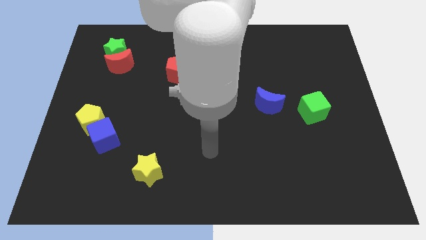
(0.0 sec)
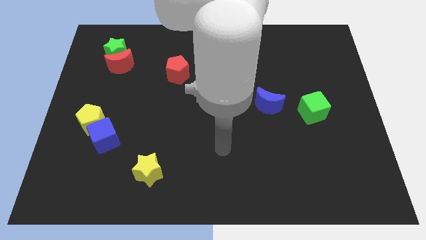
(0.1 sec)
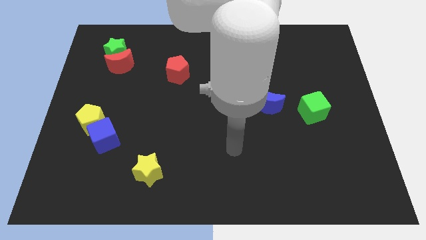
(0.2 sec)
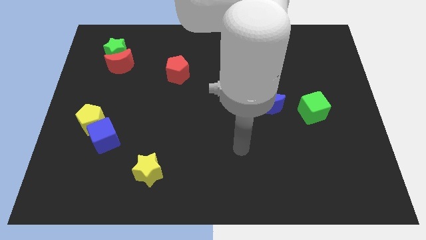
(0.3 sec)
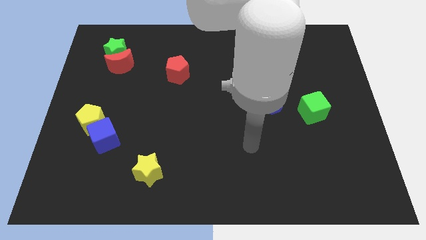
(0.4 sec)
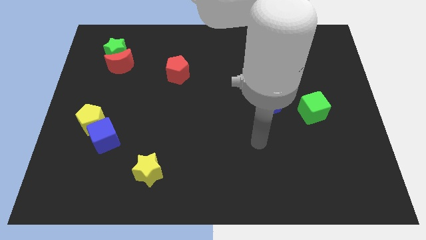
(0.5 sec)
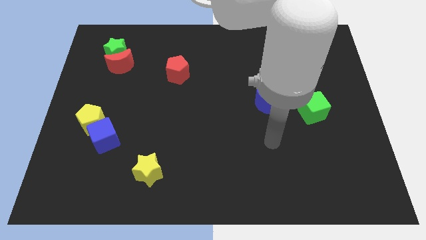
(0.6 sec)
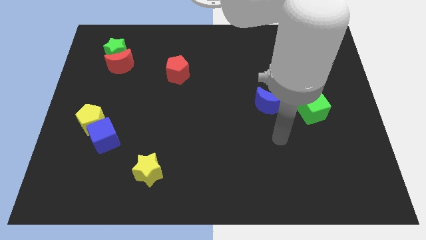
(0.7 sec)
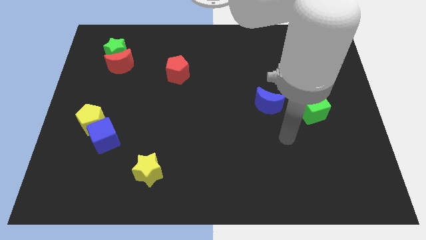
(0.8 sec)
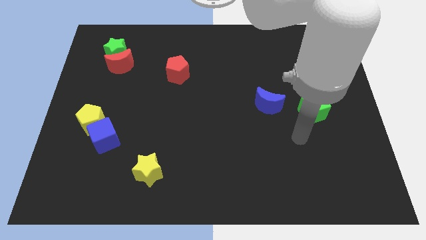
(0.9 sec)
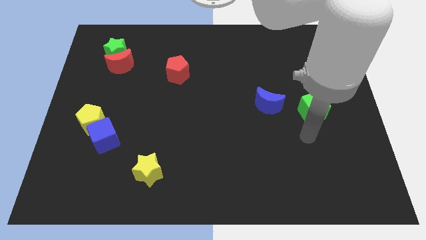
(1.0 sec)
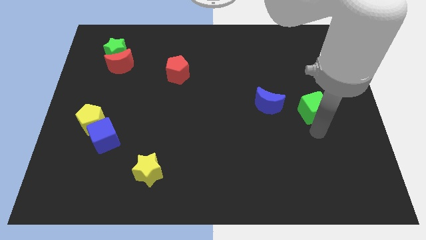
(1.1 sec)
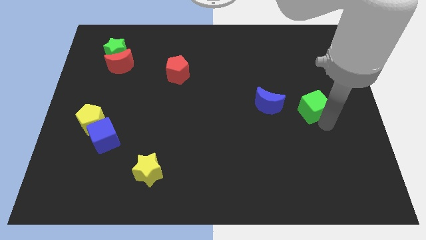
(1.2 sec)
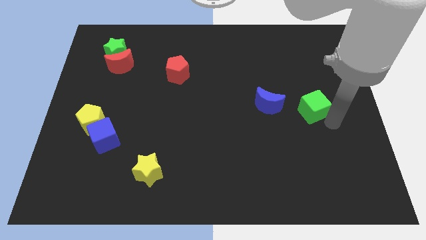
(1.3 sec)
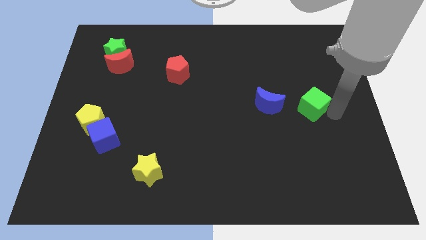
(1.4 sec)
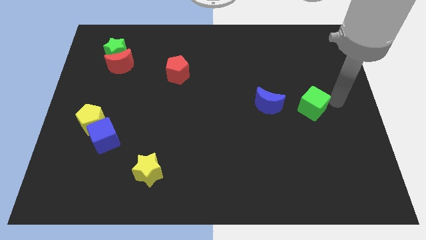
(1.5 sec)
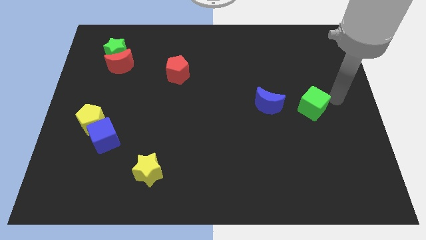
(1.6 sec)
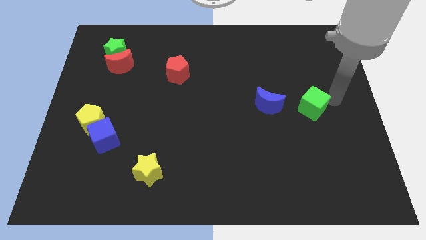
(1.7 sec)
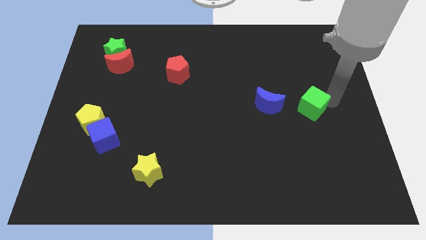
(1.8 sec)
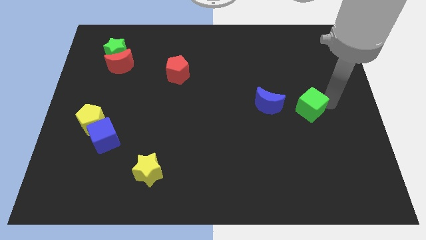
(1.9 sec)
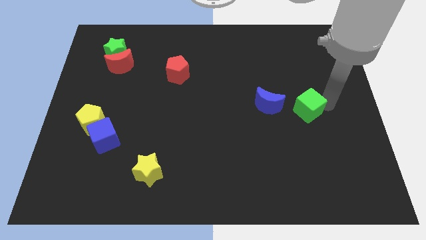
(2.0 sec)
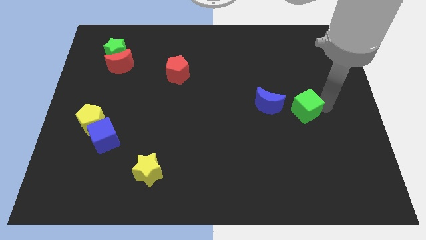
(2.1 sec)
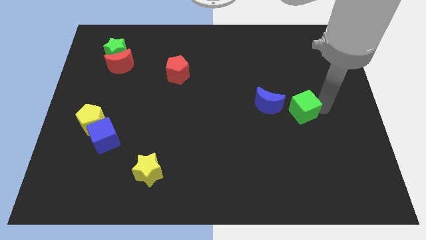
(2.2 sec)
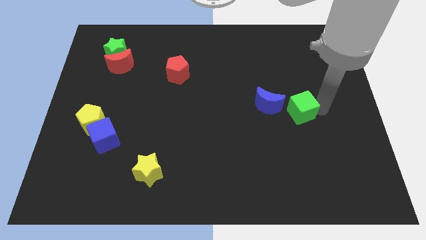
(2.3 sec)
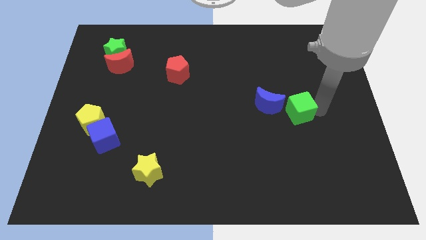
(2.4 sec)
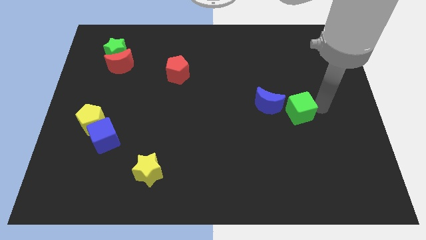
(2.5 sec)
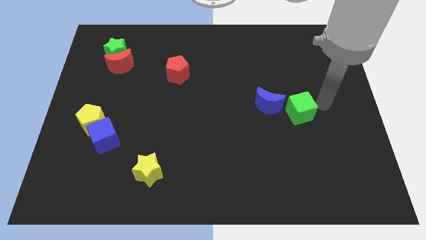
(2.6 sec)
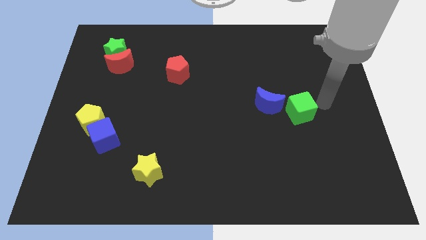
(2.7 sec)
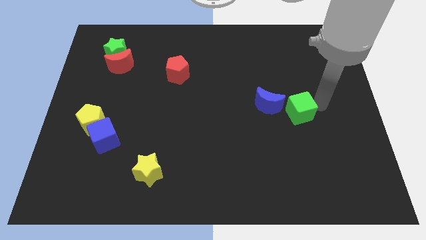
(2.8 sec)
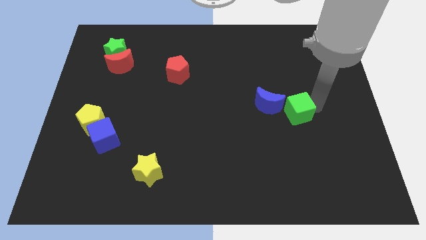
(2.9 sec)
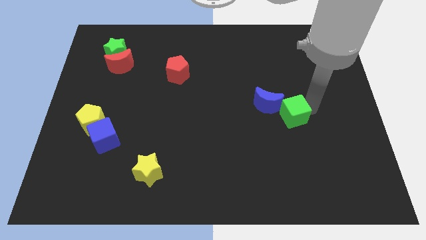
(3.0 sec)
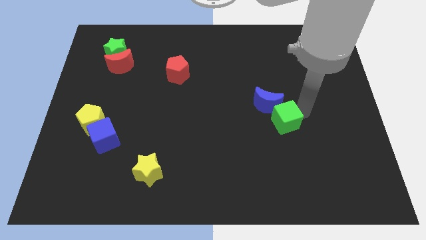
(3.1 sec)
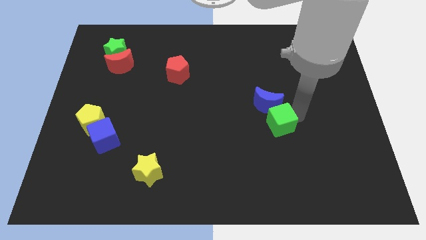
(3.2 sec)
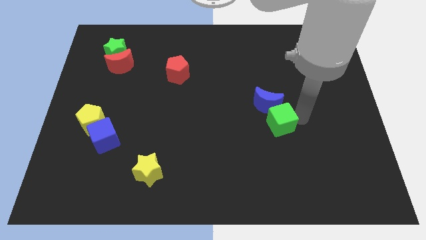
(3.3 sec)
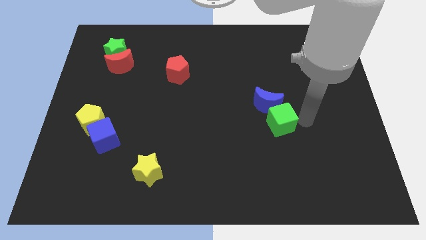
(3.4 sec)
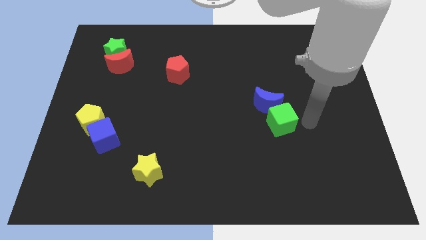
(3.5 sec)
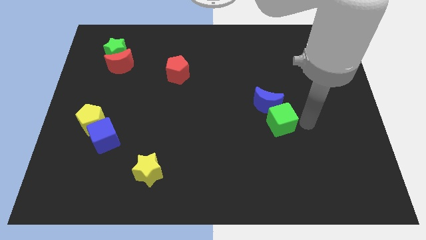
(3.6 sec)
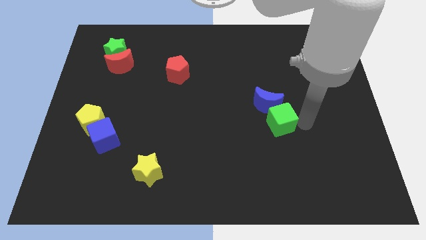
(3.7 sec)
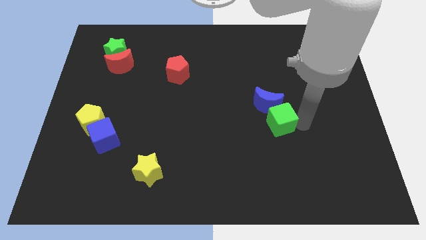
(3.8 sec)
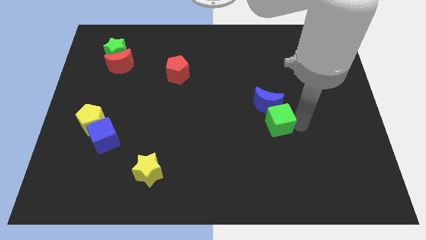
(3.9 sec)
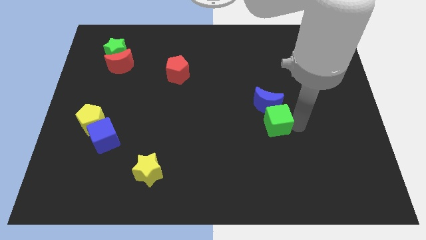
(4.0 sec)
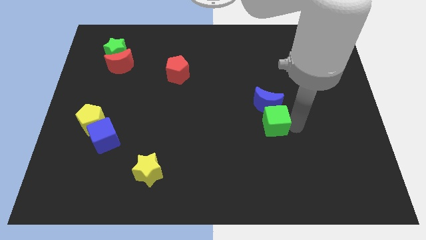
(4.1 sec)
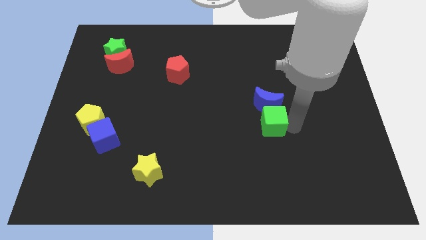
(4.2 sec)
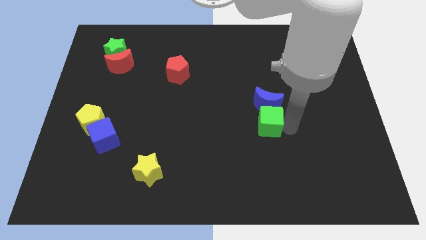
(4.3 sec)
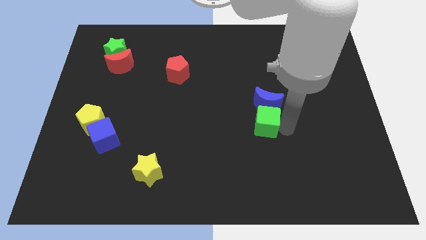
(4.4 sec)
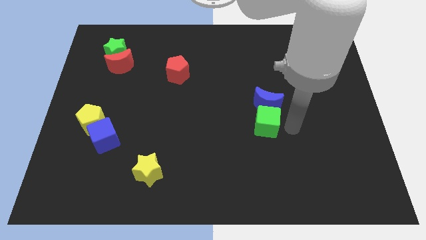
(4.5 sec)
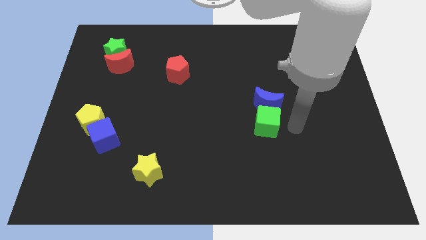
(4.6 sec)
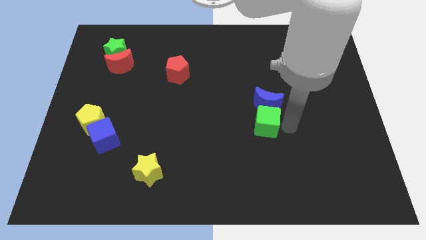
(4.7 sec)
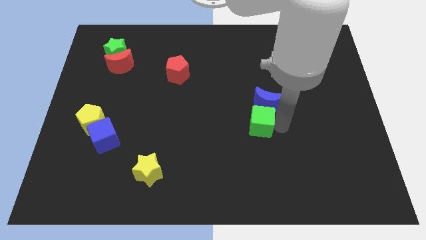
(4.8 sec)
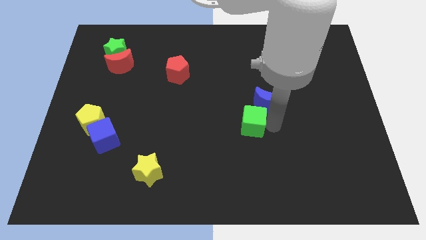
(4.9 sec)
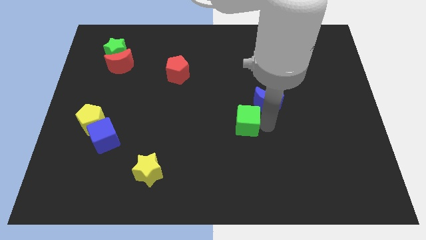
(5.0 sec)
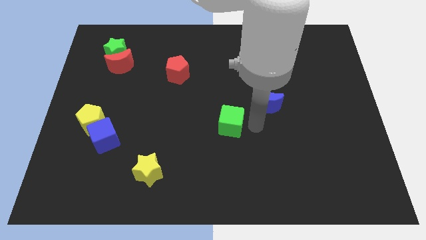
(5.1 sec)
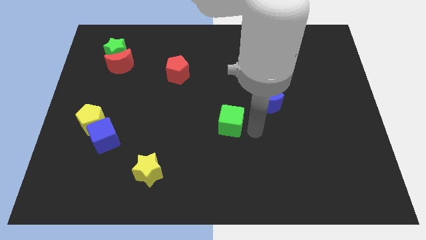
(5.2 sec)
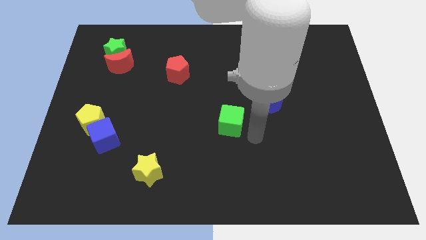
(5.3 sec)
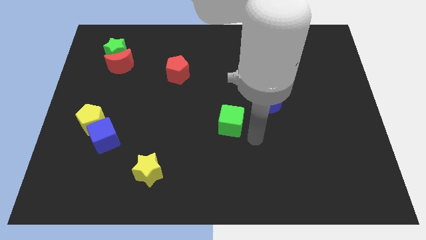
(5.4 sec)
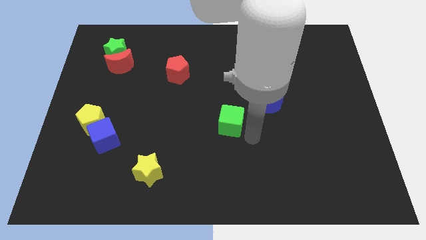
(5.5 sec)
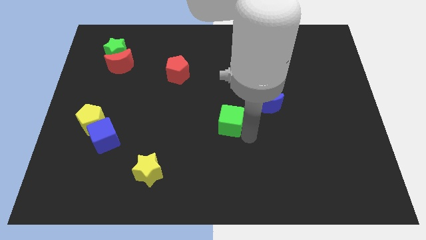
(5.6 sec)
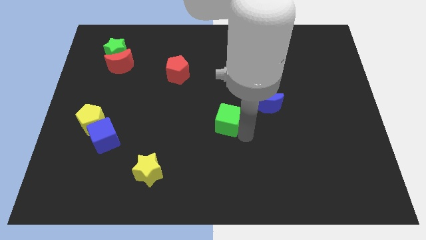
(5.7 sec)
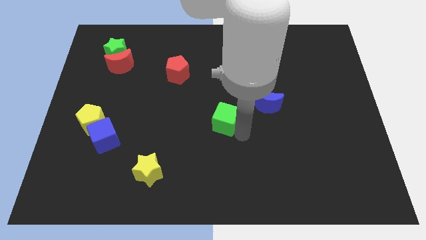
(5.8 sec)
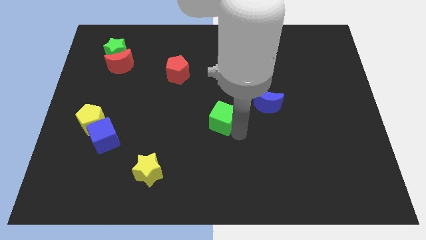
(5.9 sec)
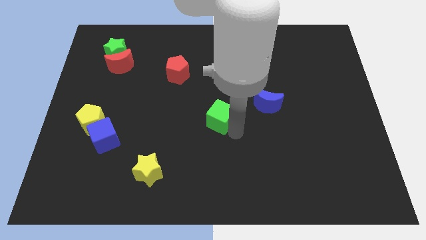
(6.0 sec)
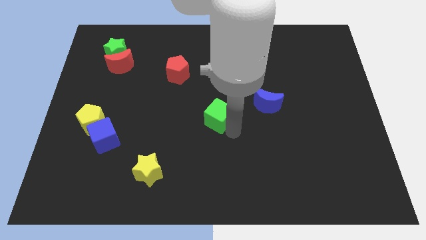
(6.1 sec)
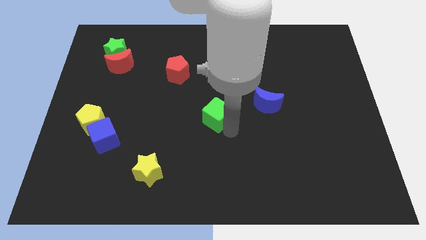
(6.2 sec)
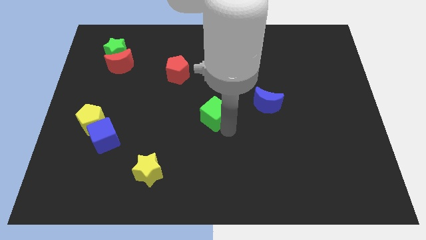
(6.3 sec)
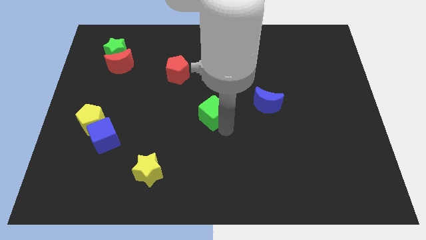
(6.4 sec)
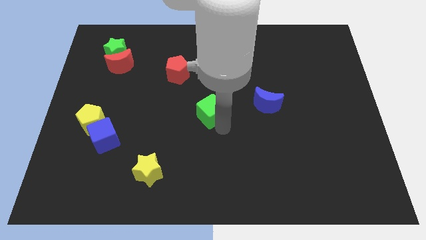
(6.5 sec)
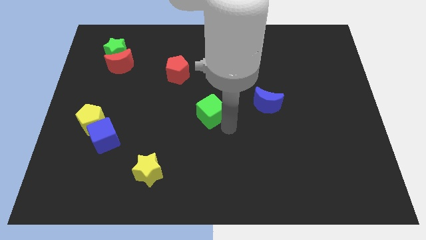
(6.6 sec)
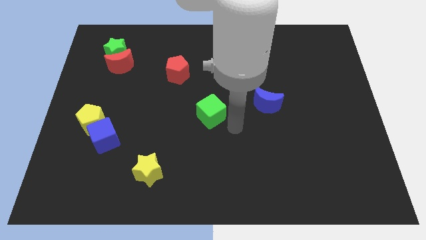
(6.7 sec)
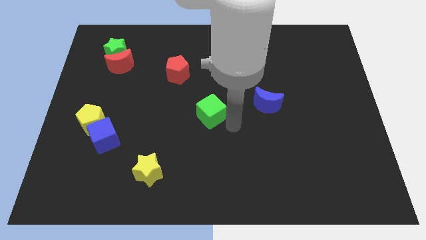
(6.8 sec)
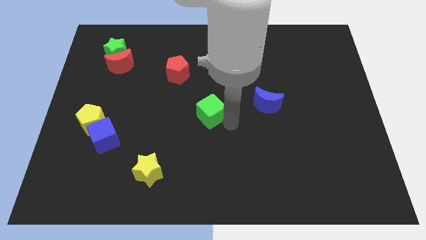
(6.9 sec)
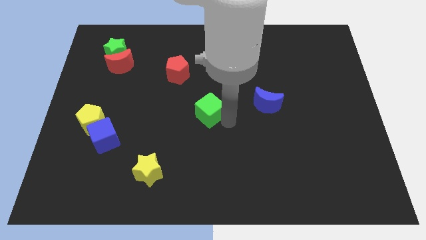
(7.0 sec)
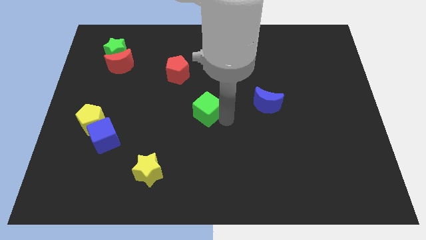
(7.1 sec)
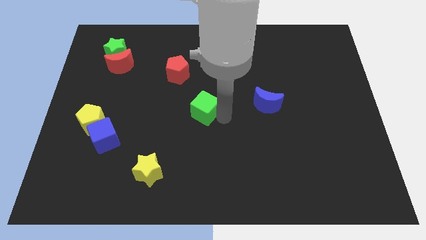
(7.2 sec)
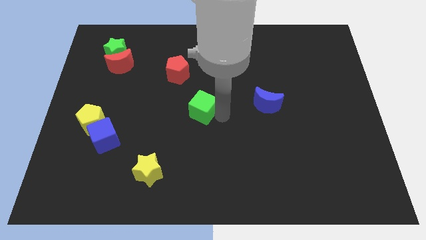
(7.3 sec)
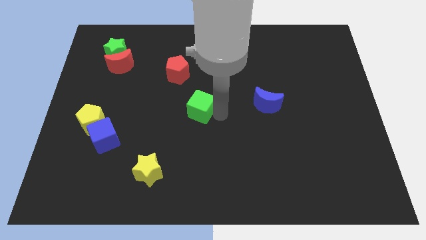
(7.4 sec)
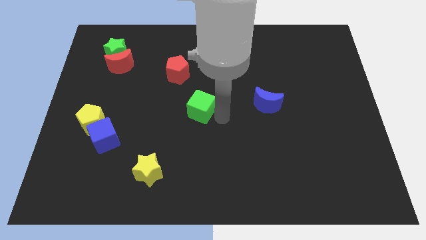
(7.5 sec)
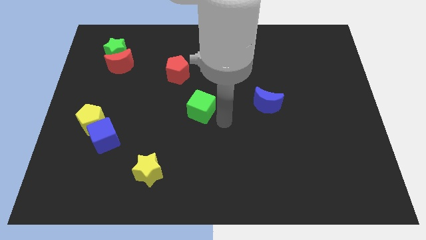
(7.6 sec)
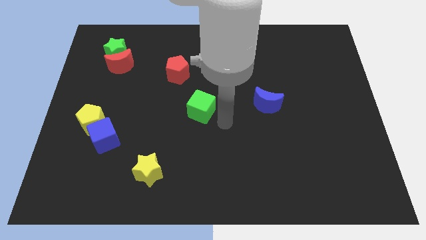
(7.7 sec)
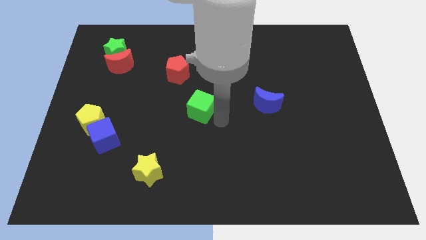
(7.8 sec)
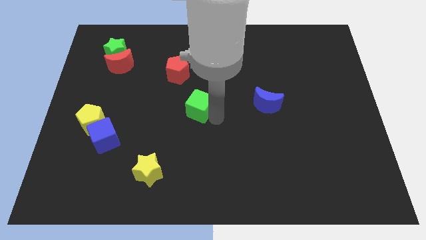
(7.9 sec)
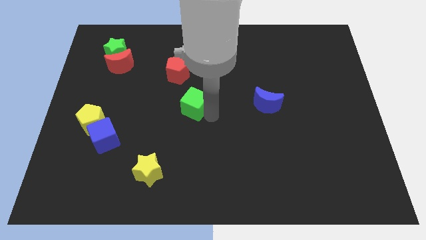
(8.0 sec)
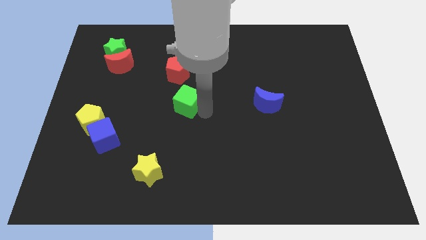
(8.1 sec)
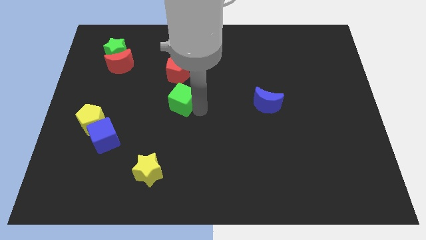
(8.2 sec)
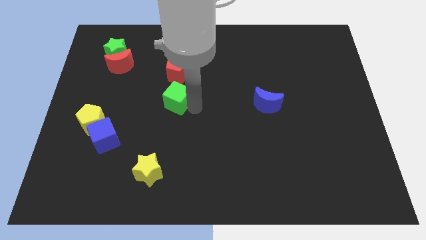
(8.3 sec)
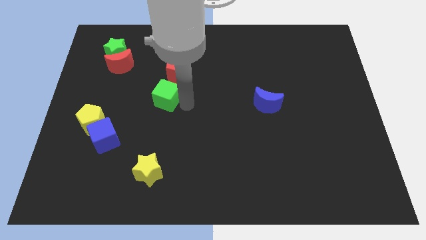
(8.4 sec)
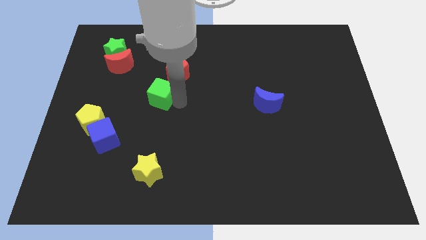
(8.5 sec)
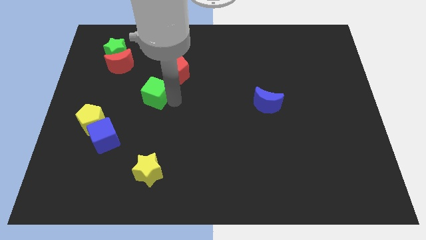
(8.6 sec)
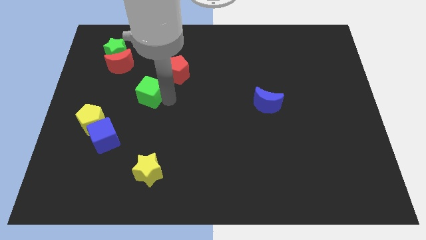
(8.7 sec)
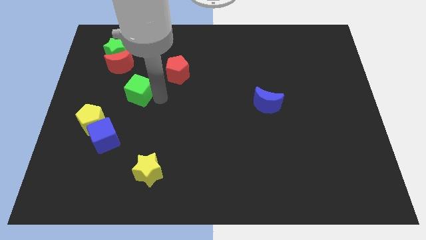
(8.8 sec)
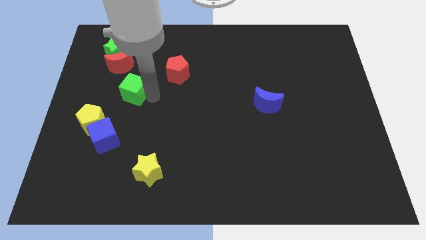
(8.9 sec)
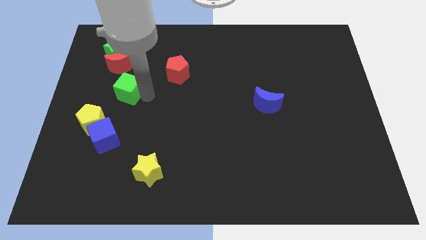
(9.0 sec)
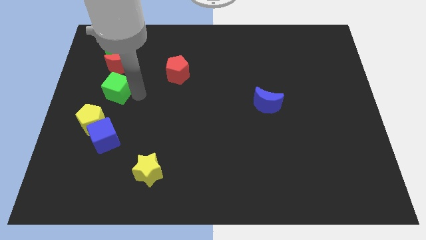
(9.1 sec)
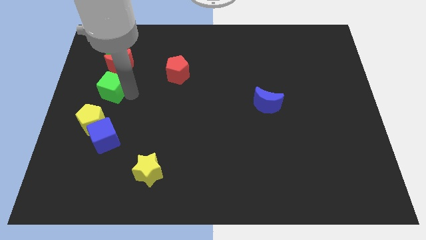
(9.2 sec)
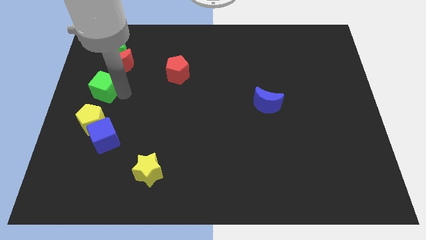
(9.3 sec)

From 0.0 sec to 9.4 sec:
move the green cube to the bottom left side of the red moon
